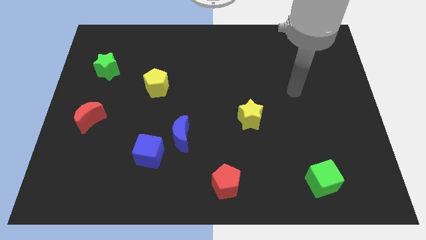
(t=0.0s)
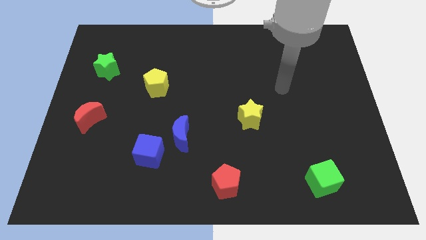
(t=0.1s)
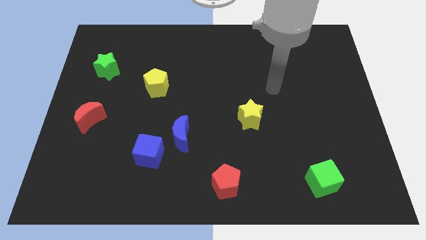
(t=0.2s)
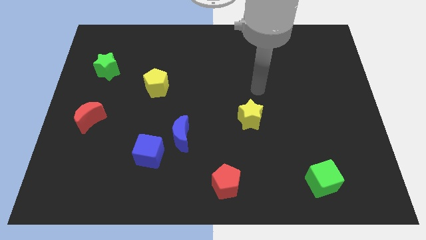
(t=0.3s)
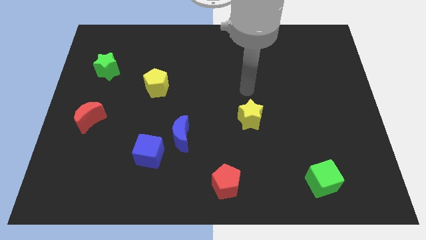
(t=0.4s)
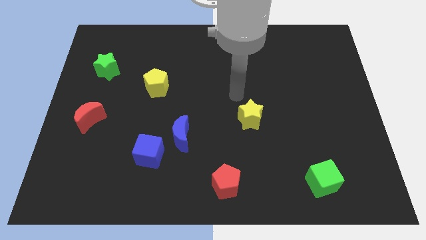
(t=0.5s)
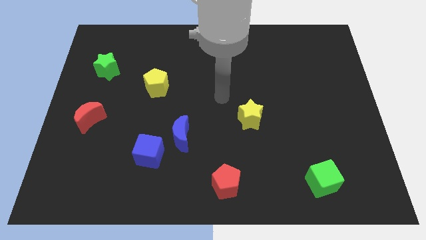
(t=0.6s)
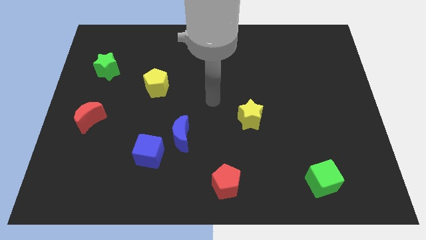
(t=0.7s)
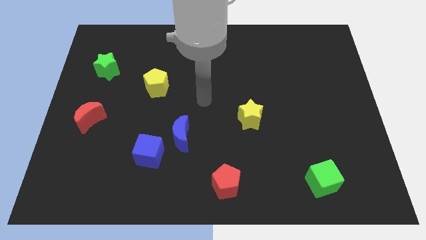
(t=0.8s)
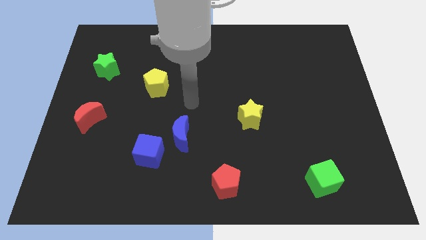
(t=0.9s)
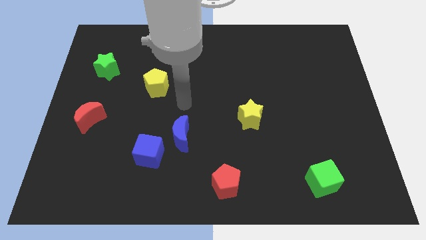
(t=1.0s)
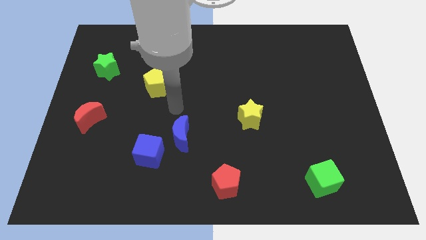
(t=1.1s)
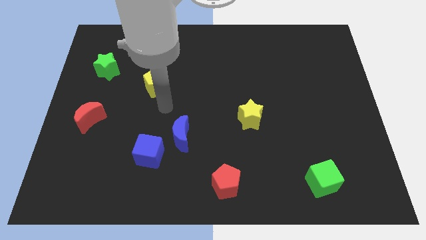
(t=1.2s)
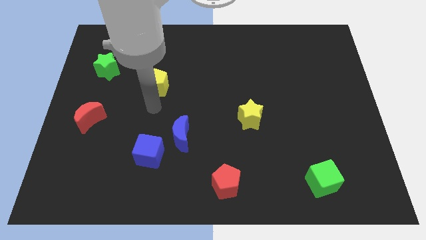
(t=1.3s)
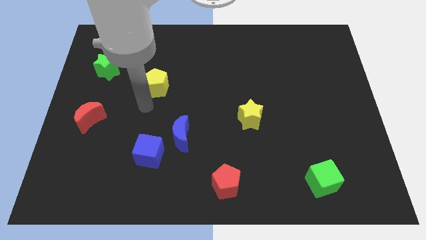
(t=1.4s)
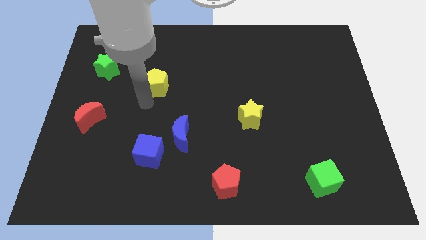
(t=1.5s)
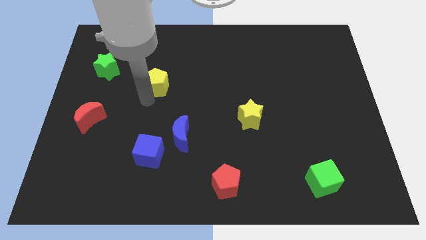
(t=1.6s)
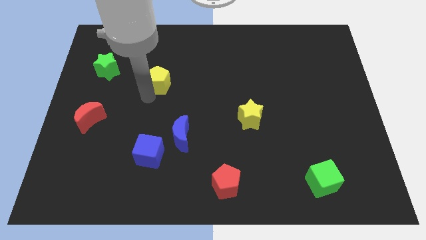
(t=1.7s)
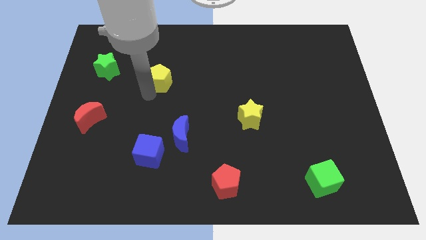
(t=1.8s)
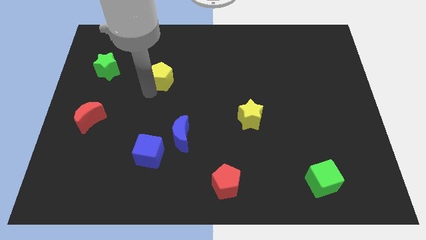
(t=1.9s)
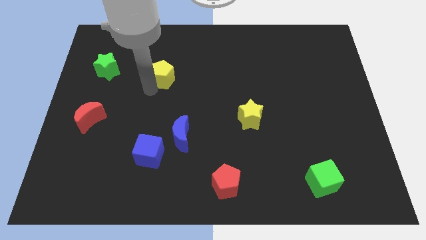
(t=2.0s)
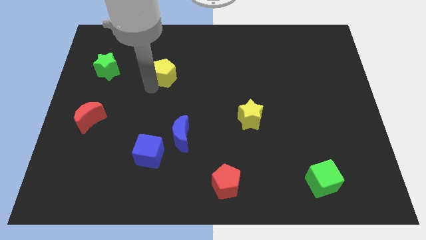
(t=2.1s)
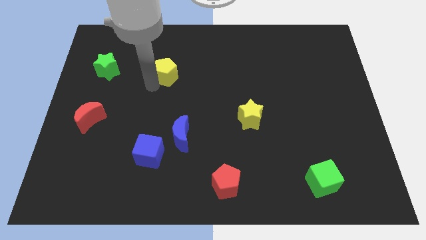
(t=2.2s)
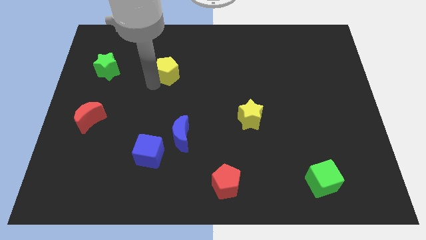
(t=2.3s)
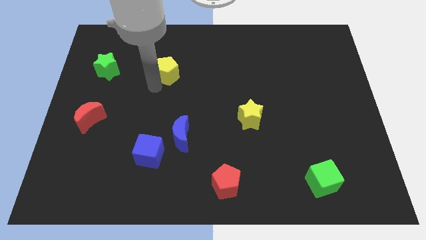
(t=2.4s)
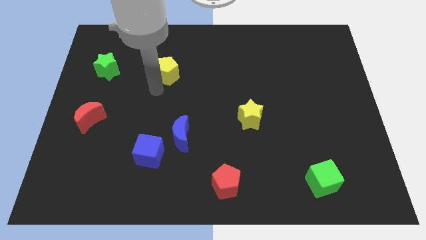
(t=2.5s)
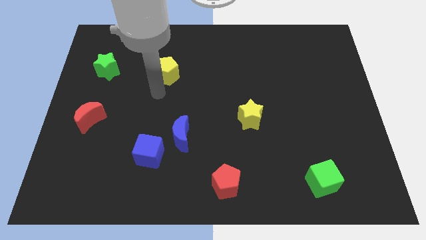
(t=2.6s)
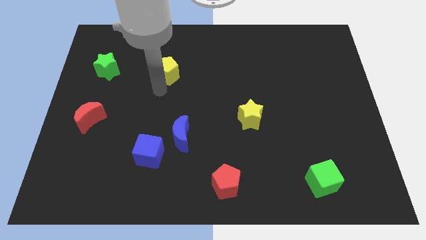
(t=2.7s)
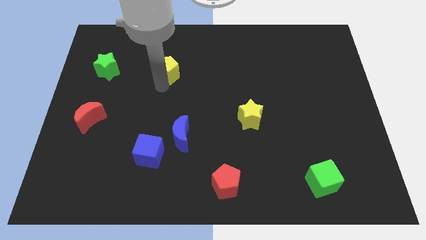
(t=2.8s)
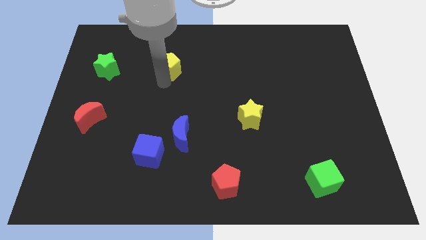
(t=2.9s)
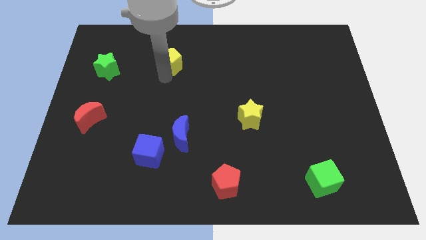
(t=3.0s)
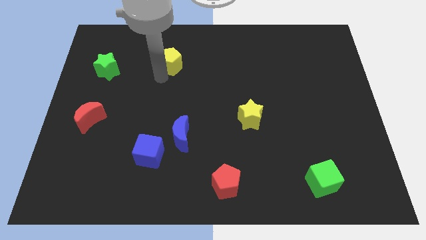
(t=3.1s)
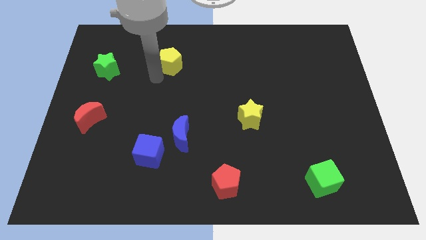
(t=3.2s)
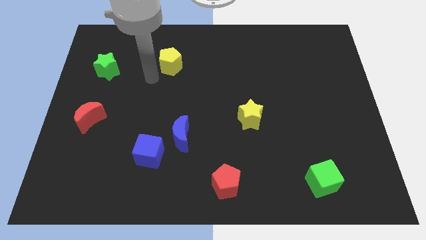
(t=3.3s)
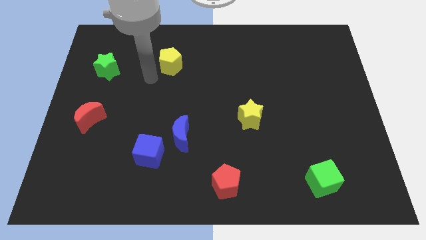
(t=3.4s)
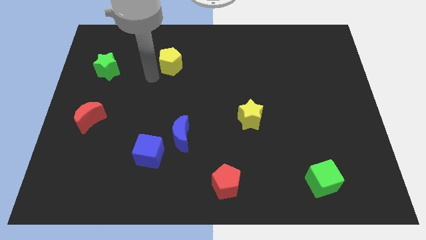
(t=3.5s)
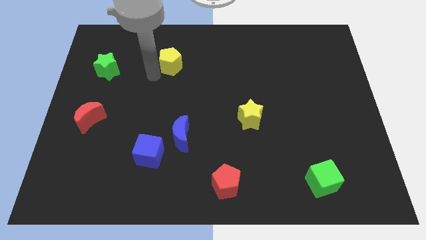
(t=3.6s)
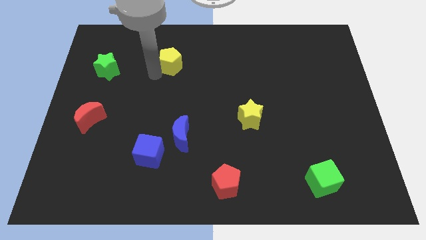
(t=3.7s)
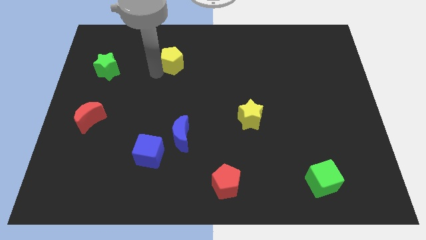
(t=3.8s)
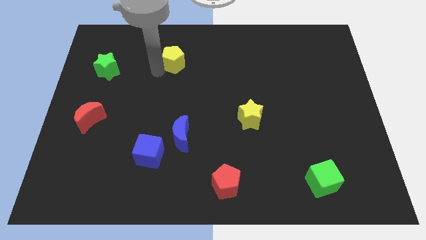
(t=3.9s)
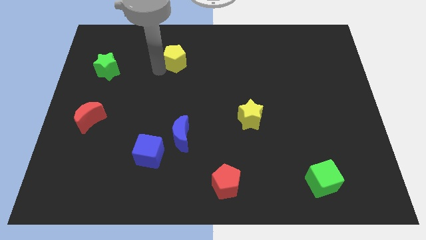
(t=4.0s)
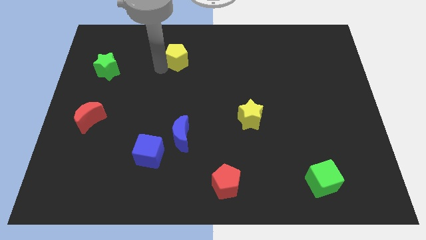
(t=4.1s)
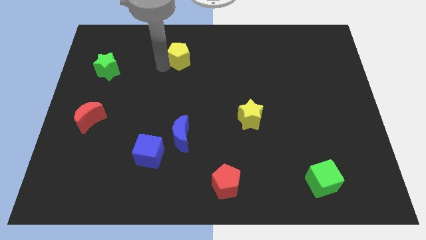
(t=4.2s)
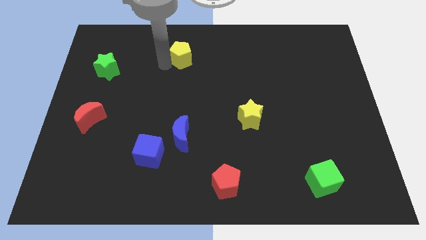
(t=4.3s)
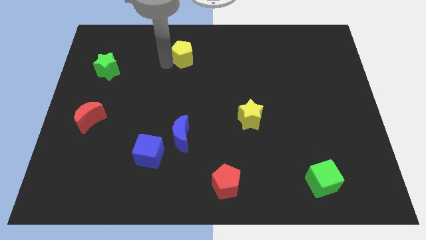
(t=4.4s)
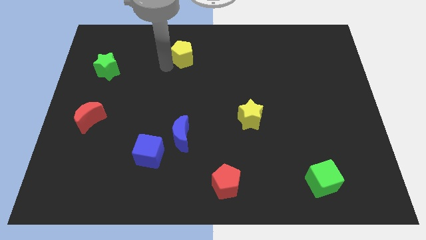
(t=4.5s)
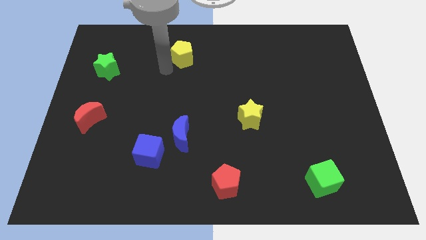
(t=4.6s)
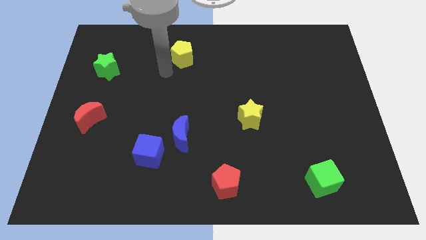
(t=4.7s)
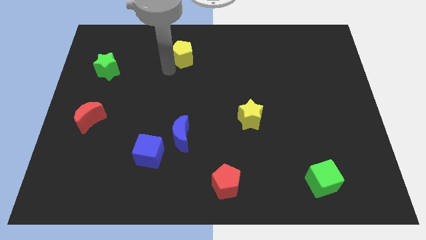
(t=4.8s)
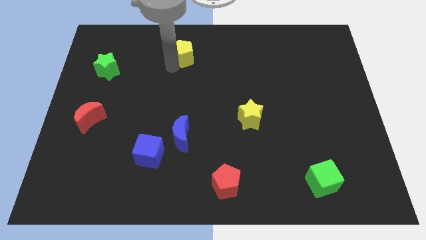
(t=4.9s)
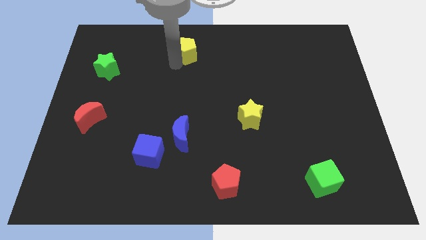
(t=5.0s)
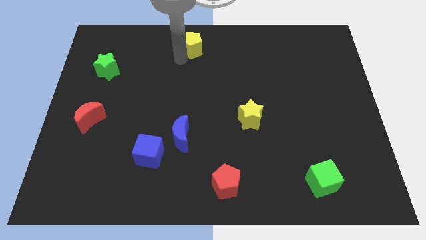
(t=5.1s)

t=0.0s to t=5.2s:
push the yellow pentagon to the top side

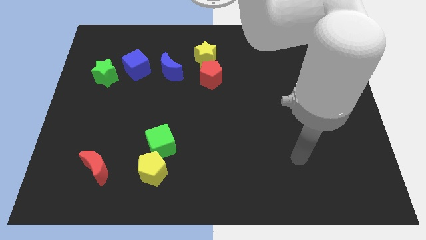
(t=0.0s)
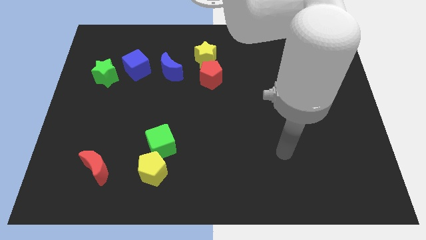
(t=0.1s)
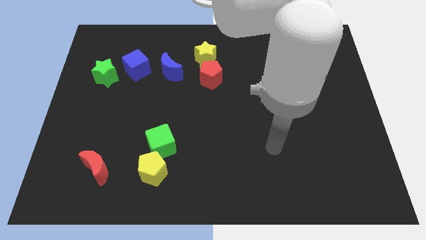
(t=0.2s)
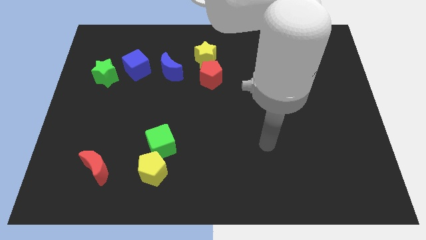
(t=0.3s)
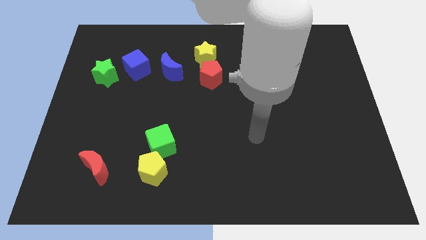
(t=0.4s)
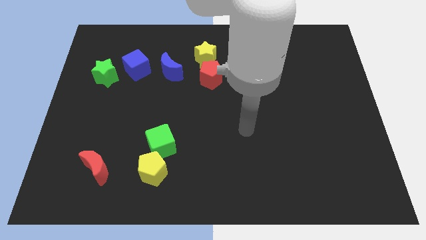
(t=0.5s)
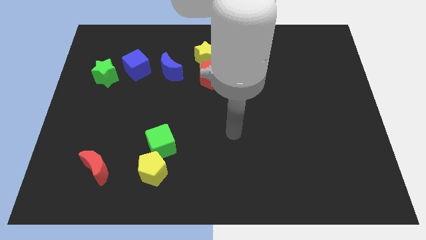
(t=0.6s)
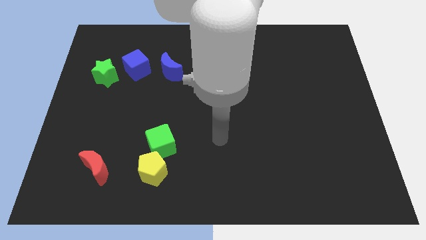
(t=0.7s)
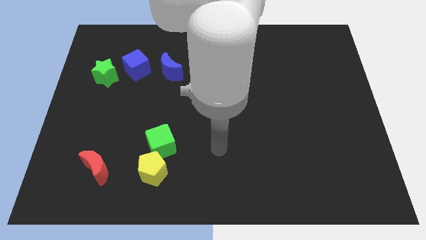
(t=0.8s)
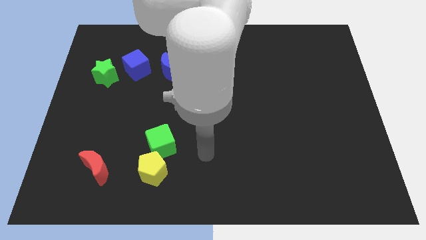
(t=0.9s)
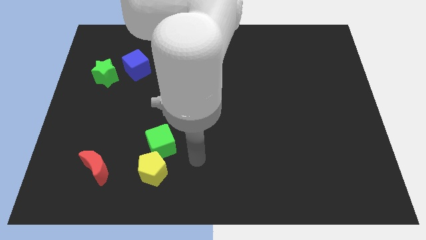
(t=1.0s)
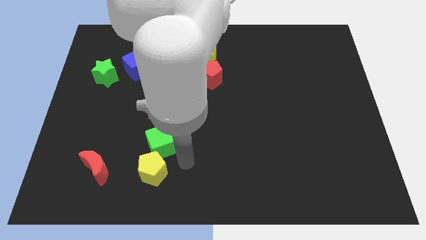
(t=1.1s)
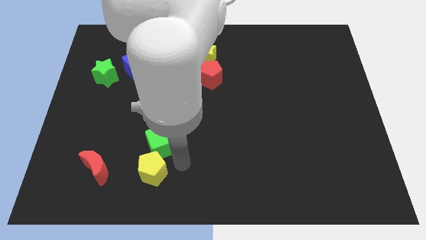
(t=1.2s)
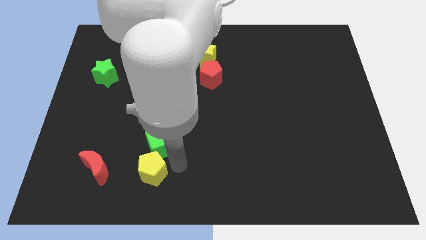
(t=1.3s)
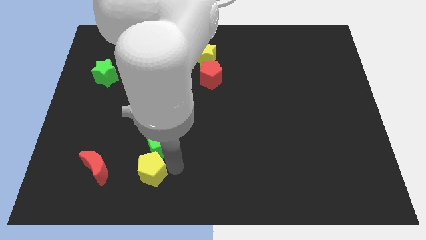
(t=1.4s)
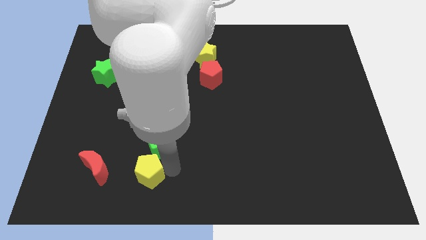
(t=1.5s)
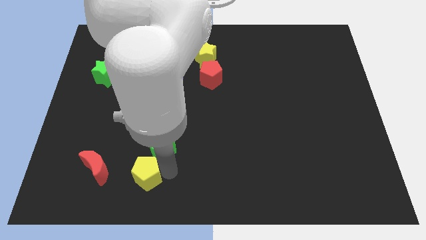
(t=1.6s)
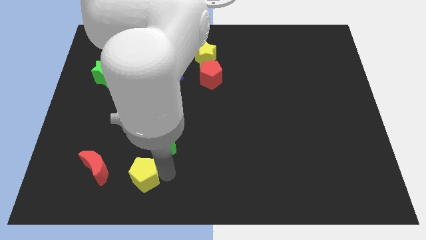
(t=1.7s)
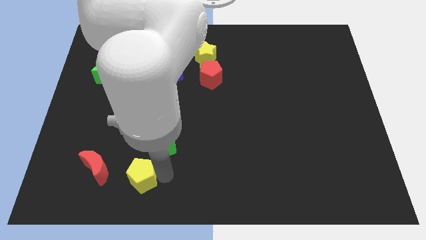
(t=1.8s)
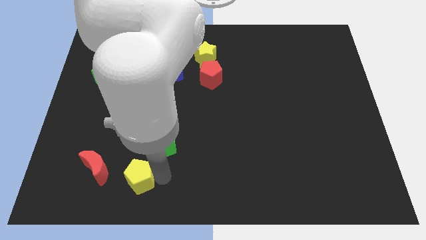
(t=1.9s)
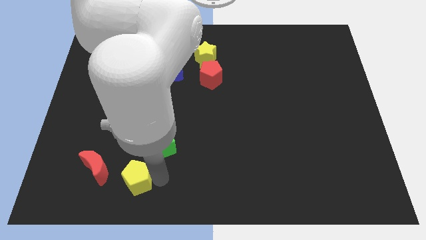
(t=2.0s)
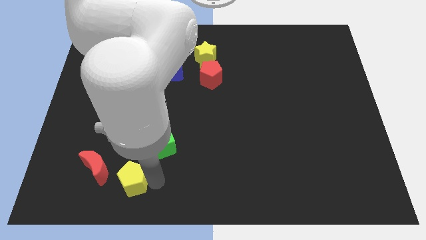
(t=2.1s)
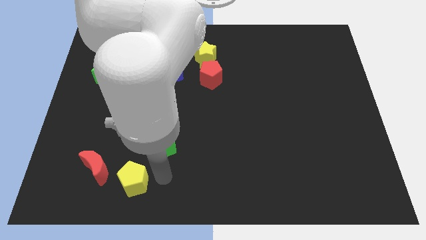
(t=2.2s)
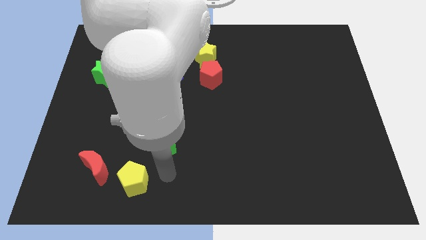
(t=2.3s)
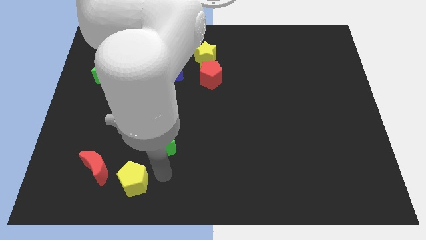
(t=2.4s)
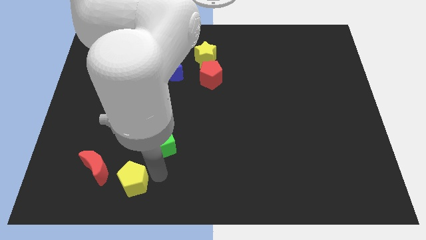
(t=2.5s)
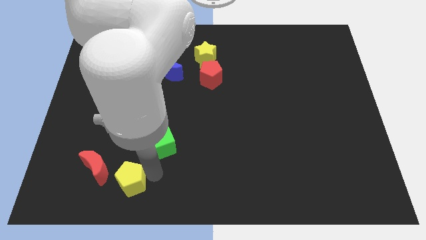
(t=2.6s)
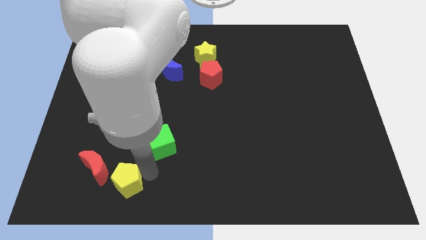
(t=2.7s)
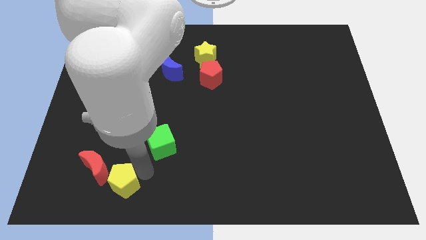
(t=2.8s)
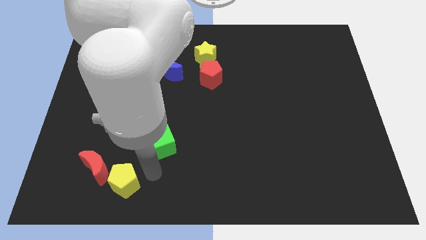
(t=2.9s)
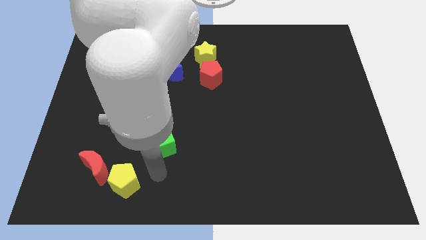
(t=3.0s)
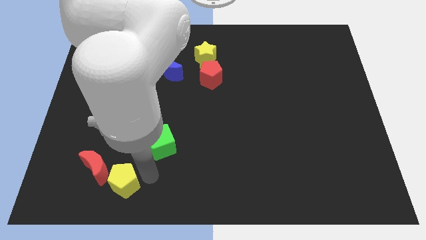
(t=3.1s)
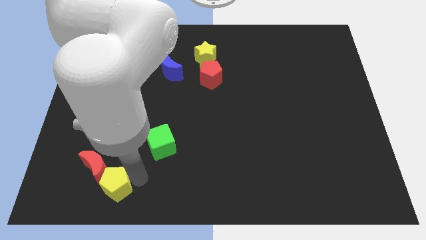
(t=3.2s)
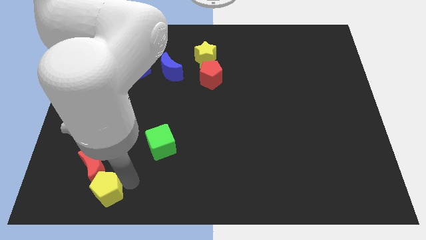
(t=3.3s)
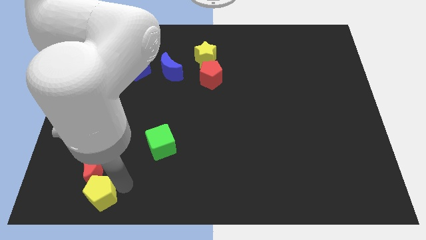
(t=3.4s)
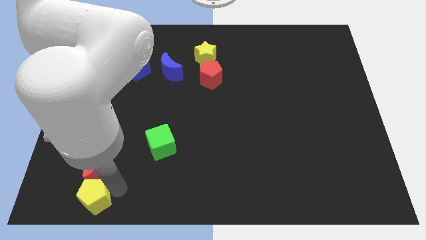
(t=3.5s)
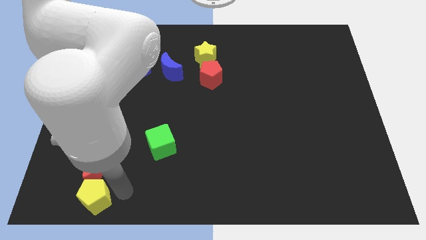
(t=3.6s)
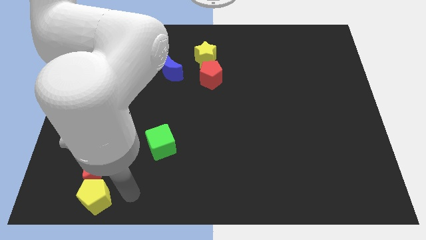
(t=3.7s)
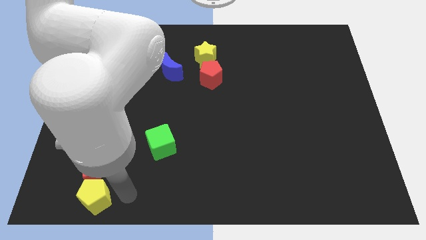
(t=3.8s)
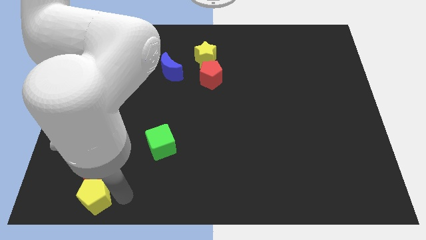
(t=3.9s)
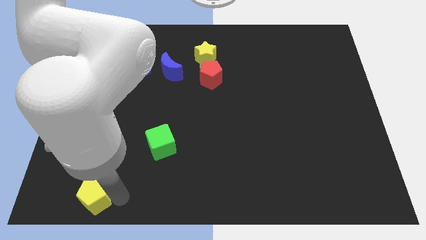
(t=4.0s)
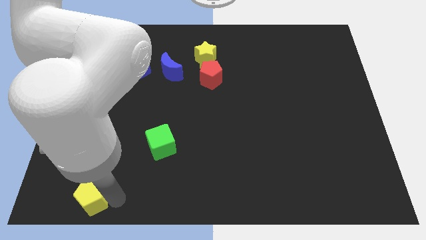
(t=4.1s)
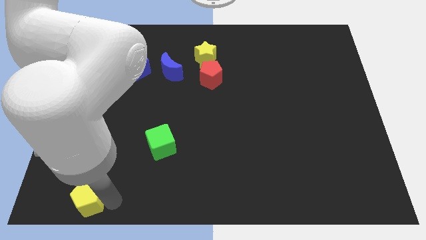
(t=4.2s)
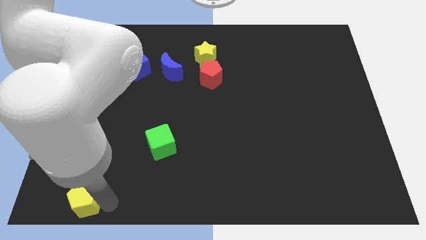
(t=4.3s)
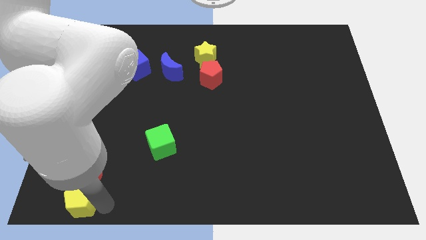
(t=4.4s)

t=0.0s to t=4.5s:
put the yellow pentagon to the lower left corner
